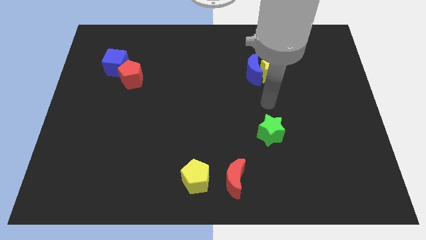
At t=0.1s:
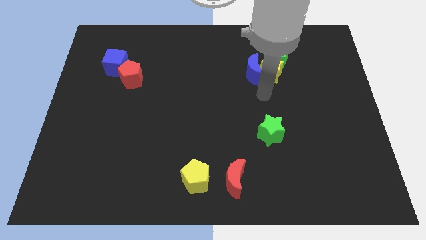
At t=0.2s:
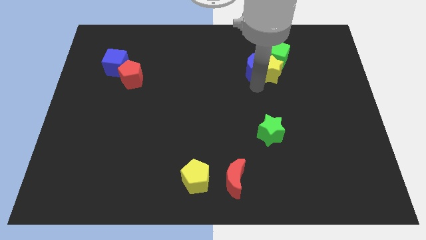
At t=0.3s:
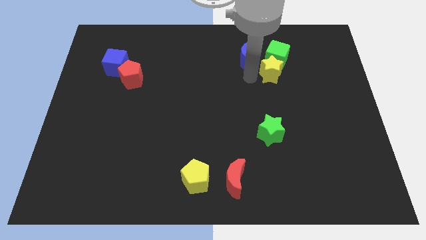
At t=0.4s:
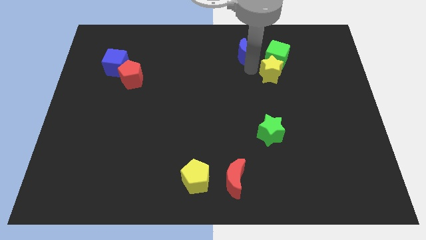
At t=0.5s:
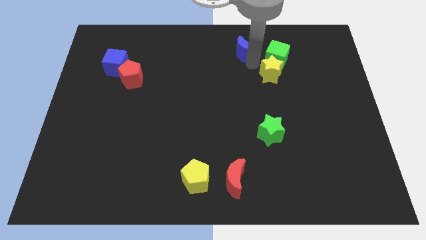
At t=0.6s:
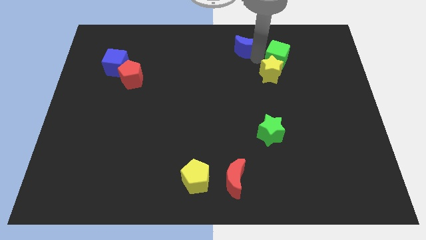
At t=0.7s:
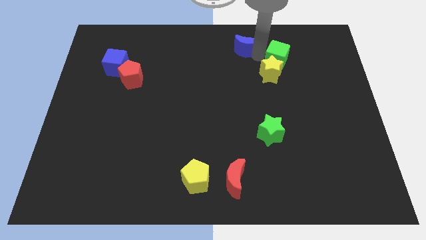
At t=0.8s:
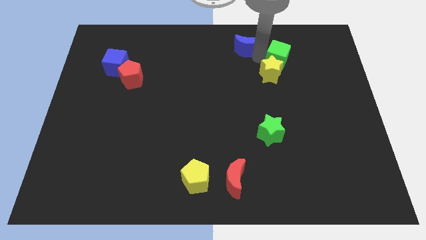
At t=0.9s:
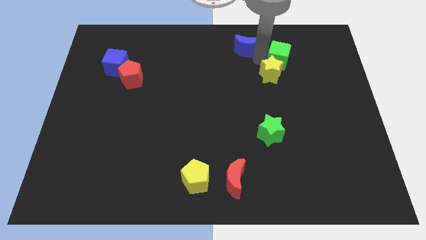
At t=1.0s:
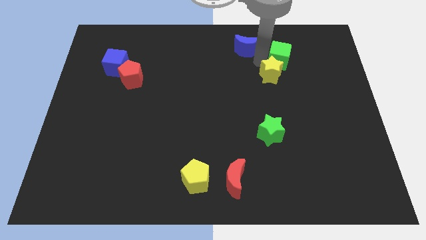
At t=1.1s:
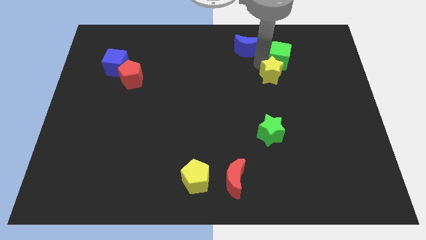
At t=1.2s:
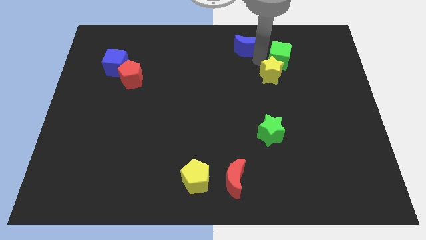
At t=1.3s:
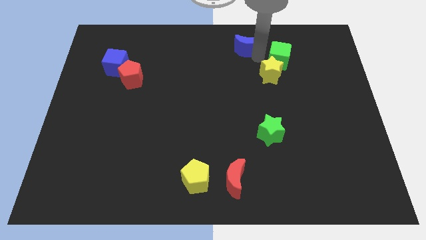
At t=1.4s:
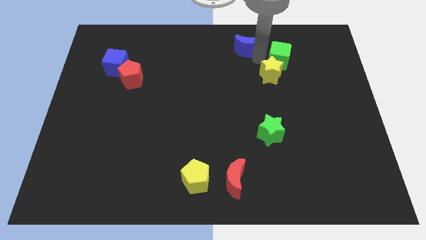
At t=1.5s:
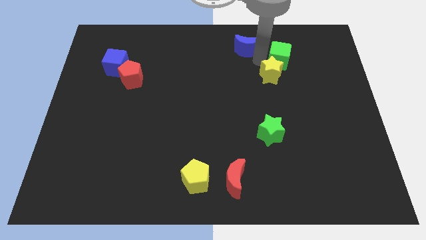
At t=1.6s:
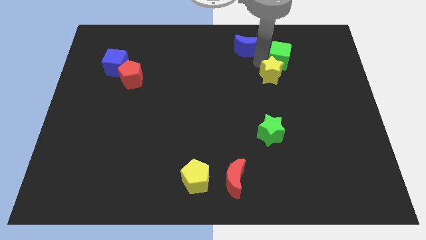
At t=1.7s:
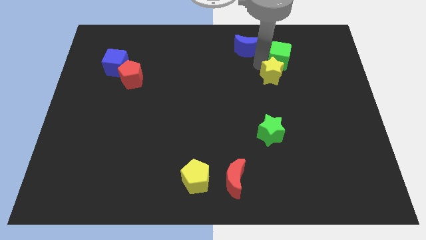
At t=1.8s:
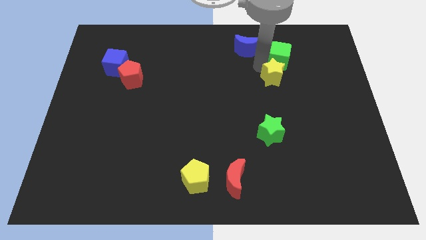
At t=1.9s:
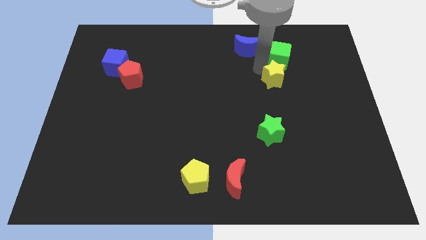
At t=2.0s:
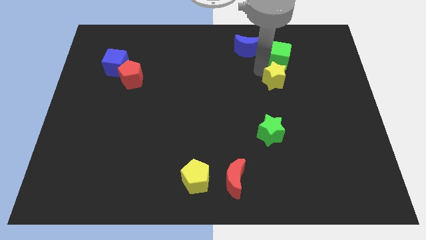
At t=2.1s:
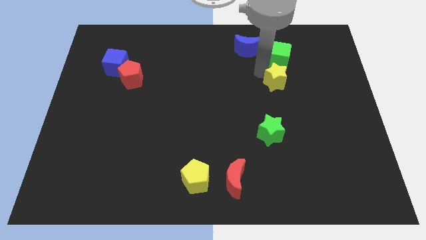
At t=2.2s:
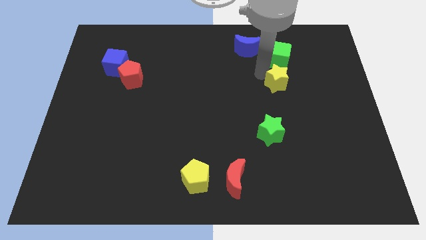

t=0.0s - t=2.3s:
move the yellow star away from the blue moon and green cube

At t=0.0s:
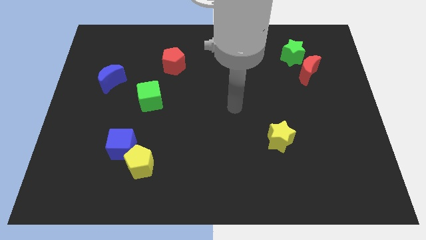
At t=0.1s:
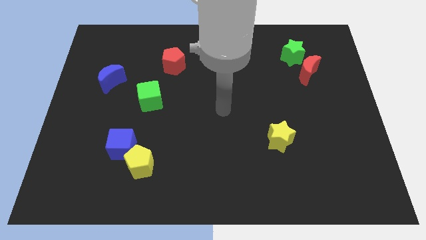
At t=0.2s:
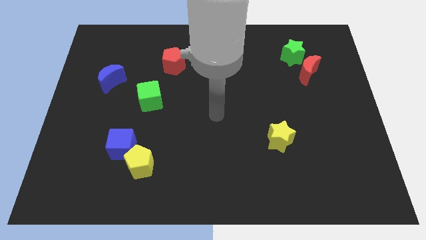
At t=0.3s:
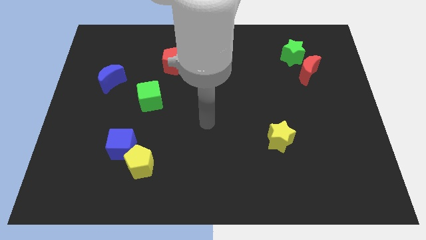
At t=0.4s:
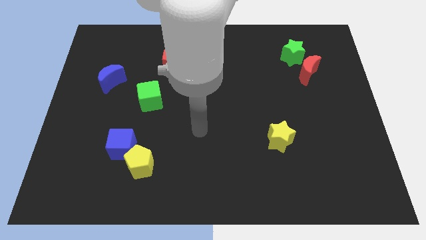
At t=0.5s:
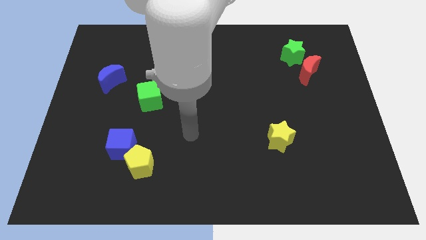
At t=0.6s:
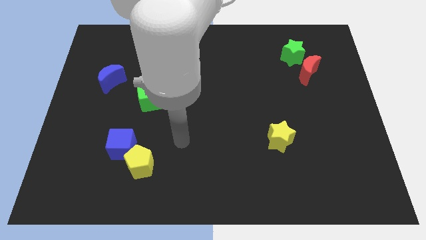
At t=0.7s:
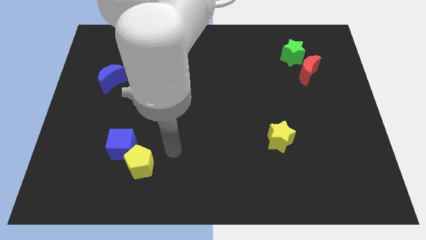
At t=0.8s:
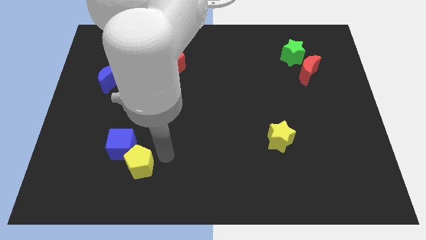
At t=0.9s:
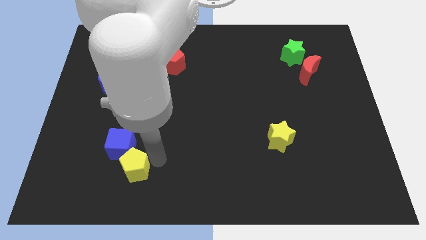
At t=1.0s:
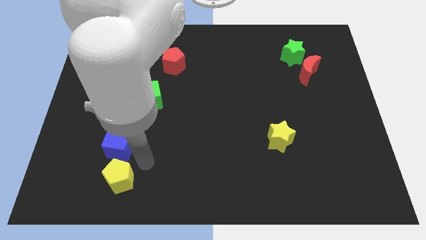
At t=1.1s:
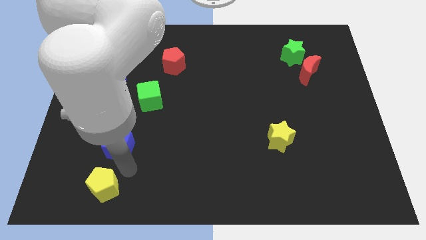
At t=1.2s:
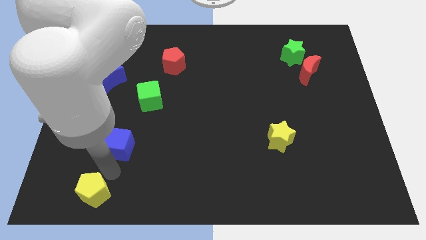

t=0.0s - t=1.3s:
separate the blue cube from the yellow pentagon

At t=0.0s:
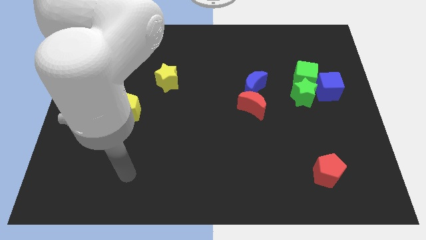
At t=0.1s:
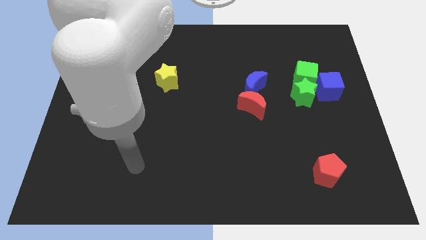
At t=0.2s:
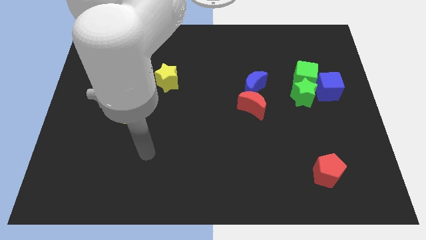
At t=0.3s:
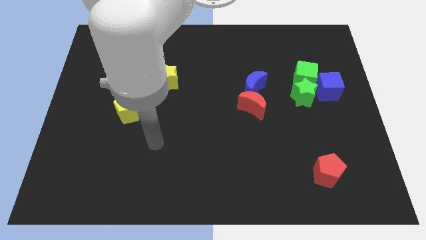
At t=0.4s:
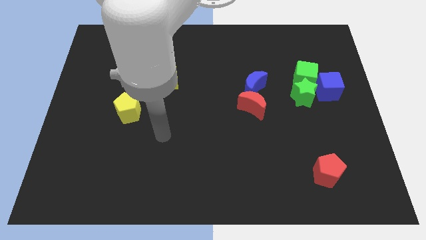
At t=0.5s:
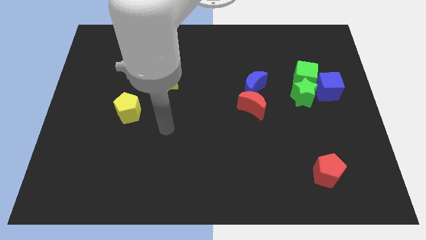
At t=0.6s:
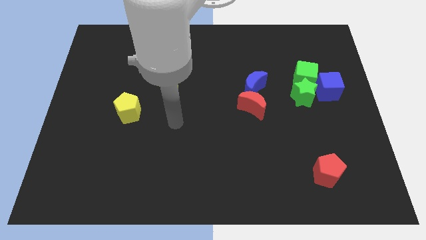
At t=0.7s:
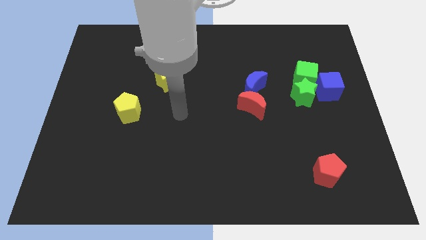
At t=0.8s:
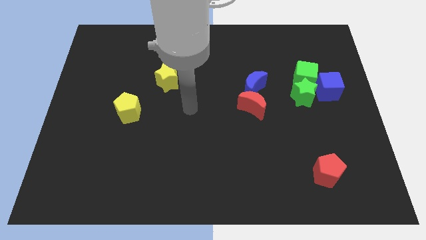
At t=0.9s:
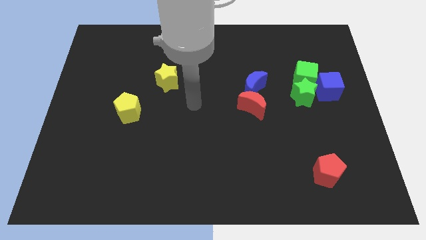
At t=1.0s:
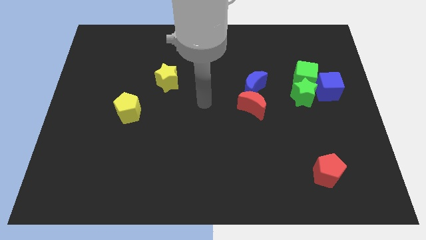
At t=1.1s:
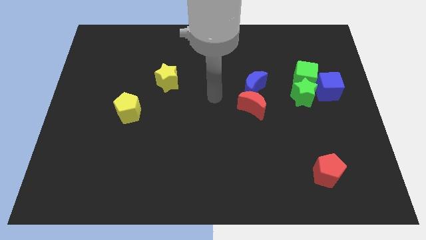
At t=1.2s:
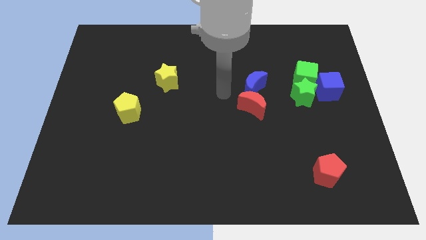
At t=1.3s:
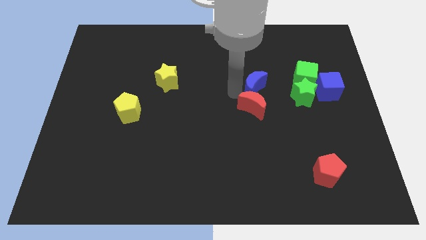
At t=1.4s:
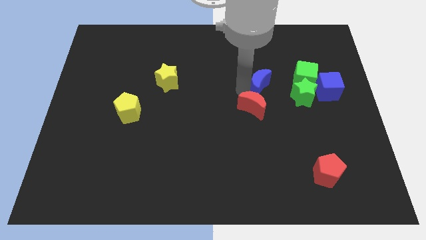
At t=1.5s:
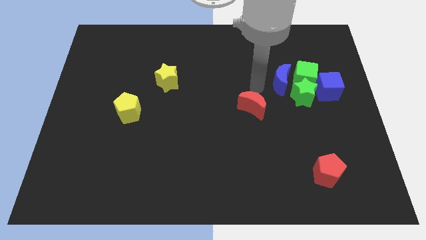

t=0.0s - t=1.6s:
pull the red moon apart from the blue moon

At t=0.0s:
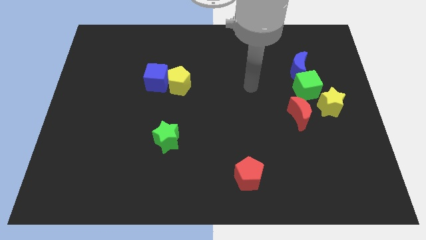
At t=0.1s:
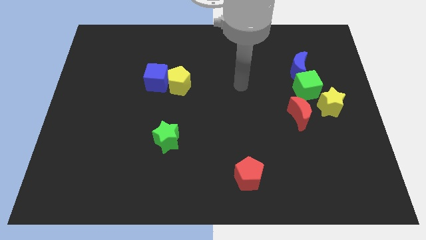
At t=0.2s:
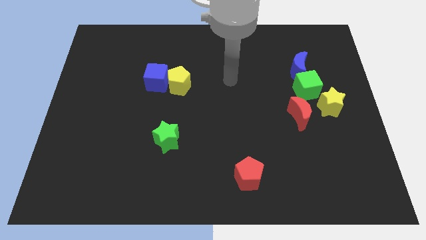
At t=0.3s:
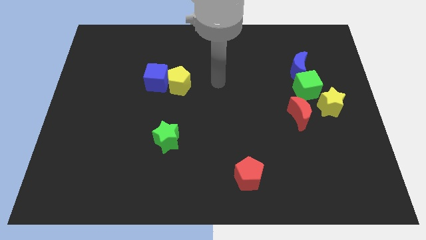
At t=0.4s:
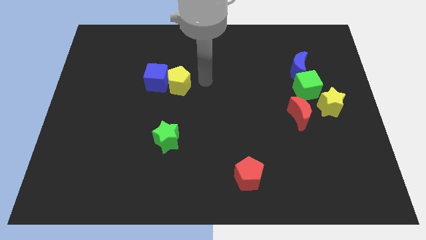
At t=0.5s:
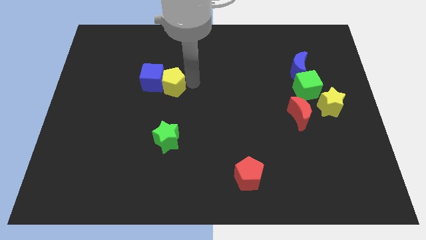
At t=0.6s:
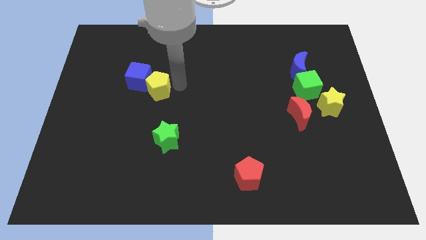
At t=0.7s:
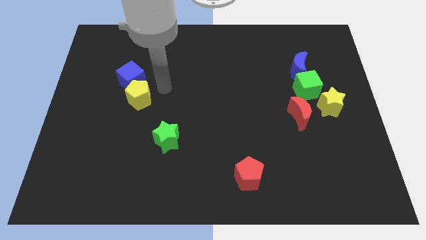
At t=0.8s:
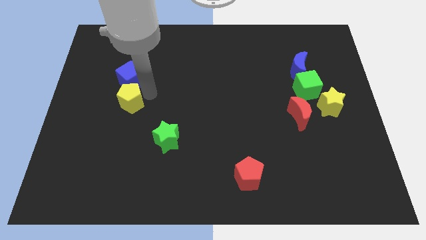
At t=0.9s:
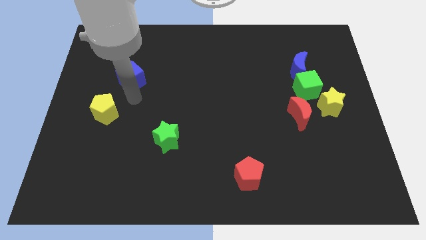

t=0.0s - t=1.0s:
pull the blue cube apart from the yellow pentagon

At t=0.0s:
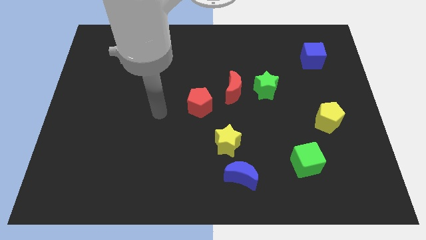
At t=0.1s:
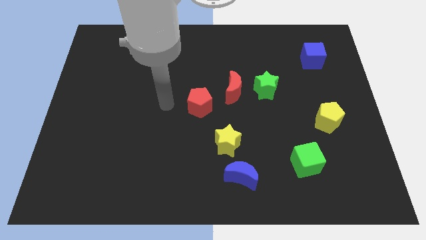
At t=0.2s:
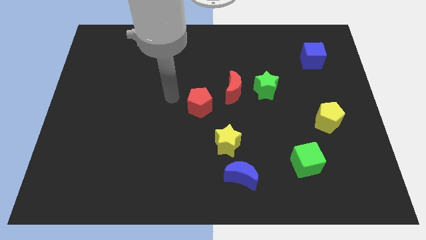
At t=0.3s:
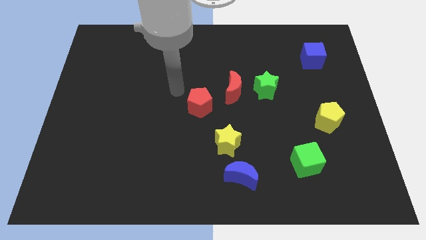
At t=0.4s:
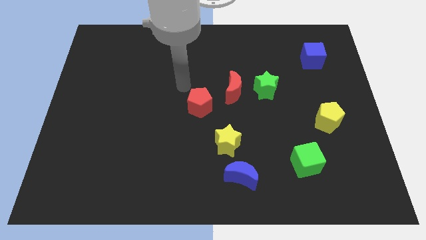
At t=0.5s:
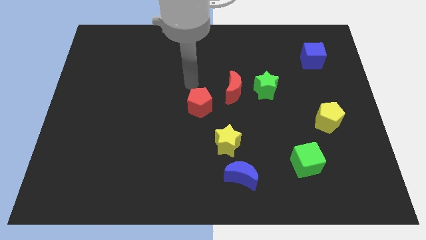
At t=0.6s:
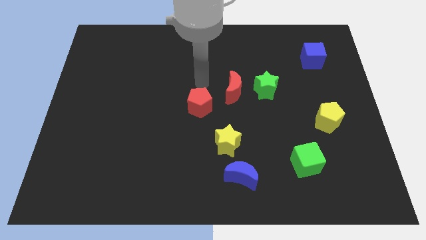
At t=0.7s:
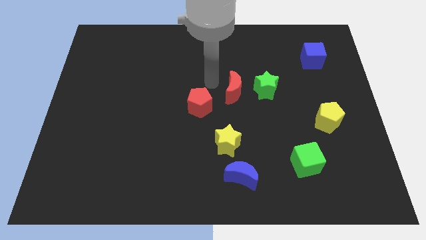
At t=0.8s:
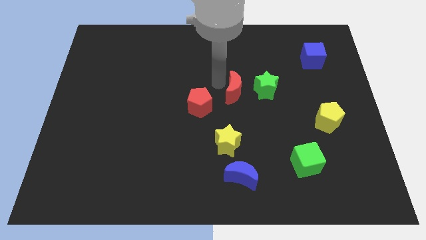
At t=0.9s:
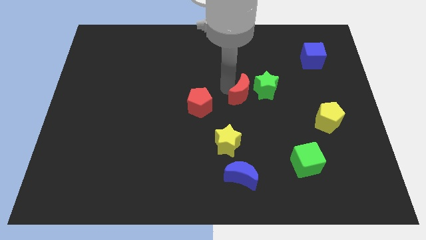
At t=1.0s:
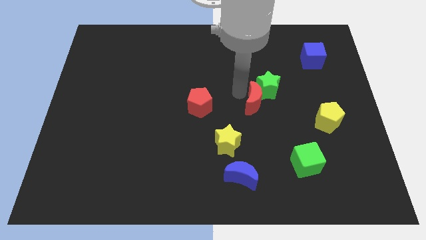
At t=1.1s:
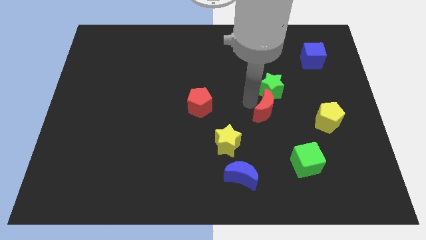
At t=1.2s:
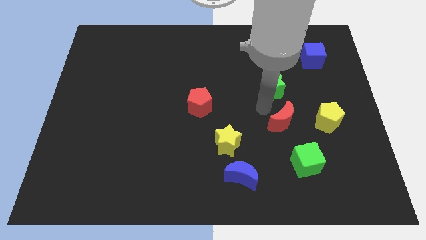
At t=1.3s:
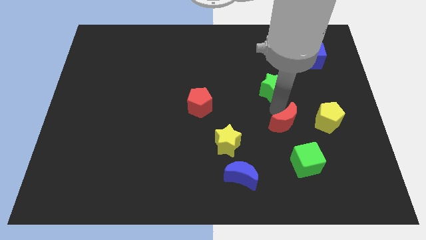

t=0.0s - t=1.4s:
move the green star away from the red moon

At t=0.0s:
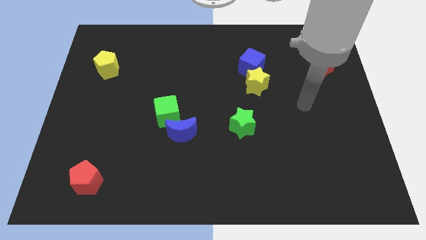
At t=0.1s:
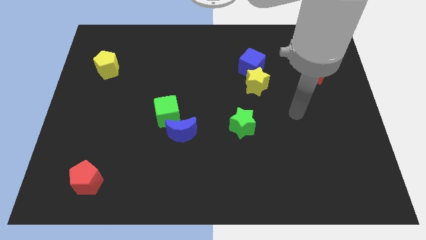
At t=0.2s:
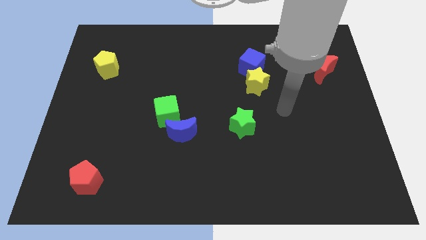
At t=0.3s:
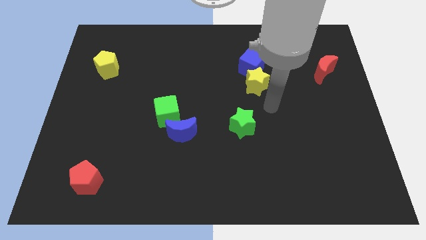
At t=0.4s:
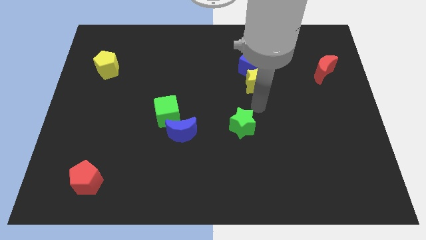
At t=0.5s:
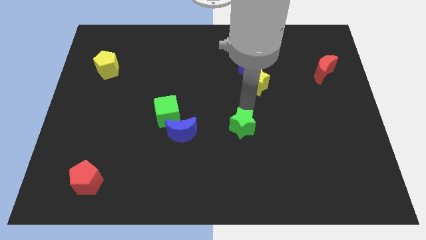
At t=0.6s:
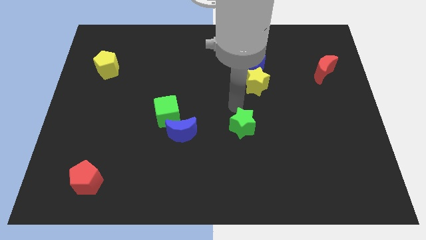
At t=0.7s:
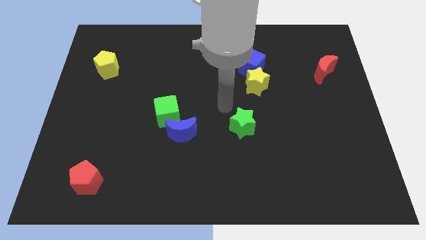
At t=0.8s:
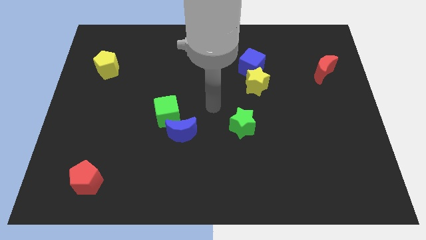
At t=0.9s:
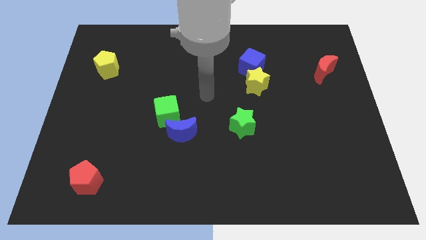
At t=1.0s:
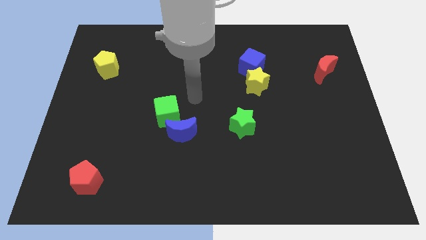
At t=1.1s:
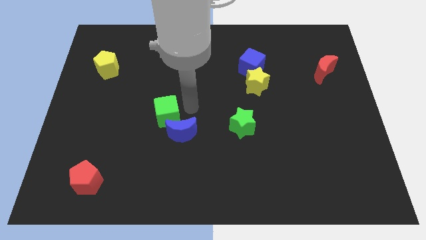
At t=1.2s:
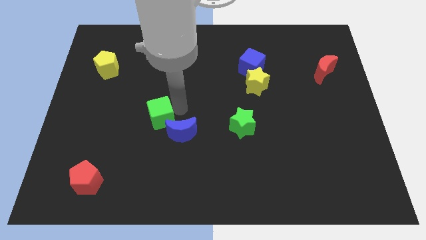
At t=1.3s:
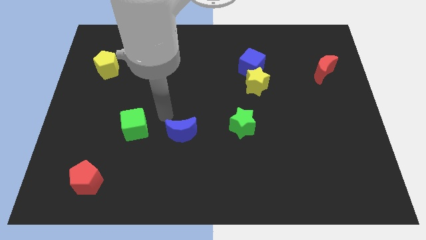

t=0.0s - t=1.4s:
separate the blue moon from the green cube

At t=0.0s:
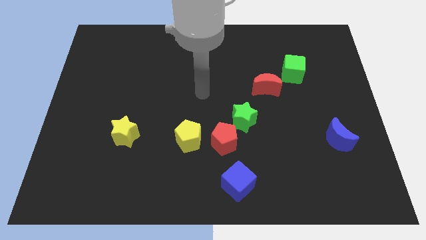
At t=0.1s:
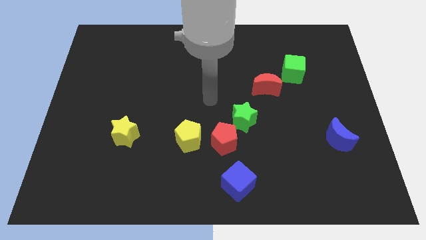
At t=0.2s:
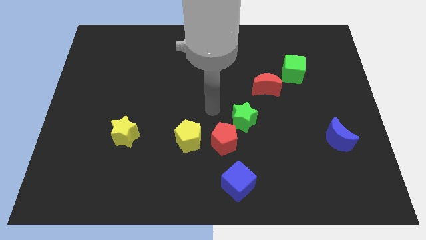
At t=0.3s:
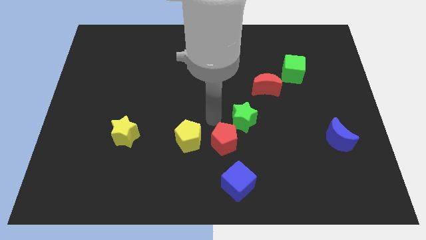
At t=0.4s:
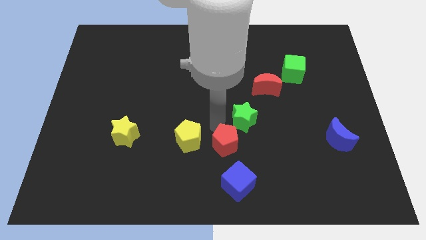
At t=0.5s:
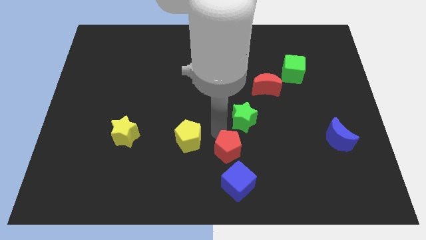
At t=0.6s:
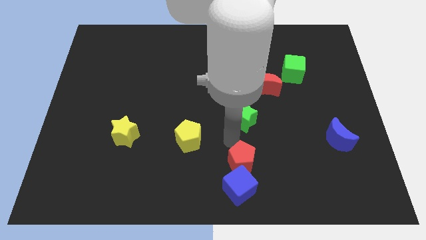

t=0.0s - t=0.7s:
pull the green star apart from the red pentagon
